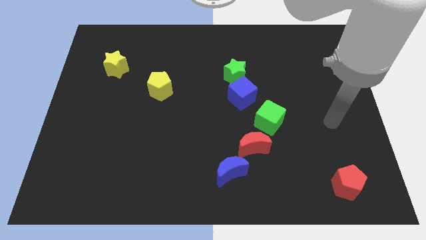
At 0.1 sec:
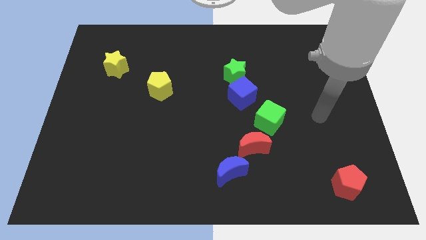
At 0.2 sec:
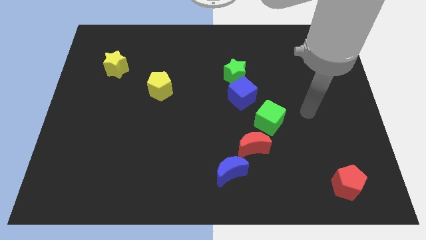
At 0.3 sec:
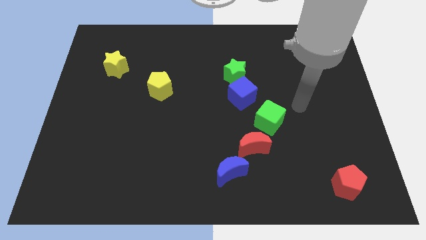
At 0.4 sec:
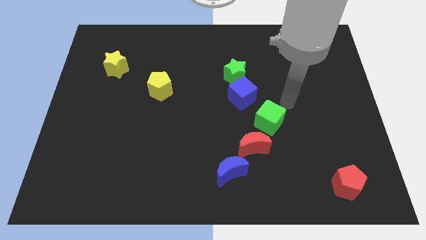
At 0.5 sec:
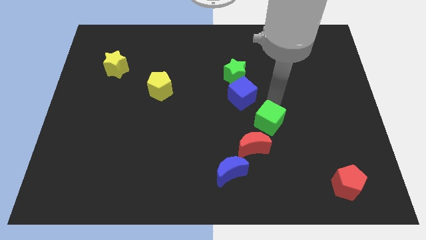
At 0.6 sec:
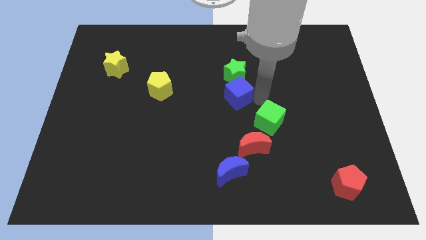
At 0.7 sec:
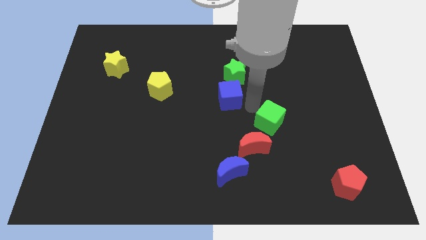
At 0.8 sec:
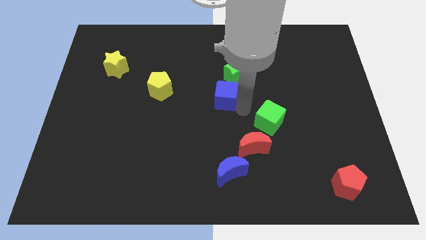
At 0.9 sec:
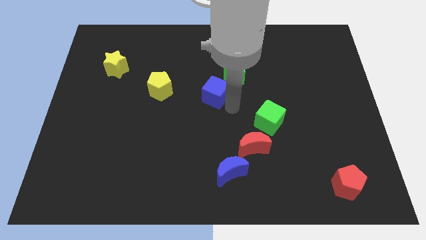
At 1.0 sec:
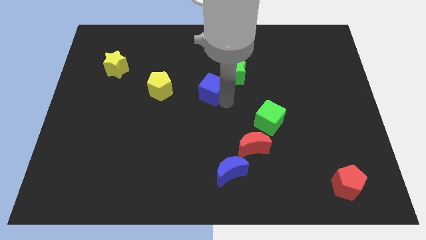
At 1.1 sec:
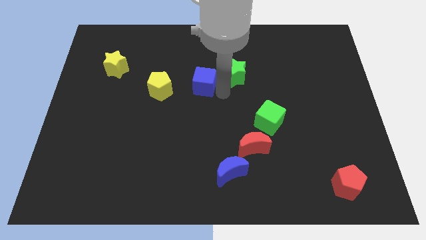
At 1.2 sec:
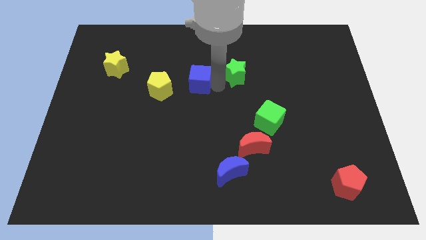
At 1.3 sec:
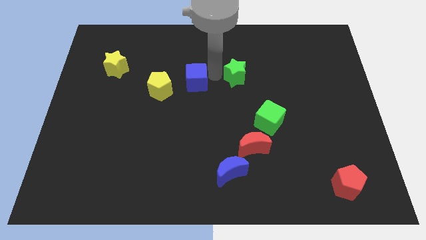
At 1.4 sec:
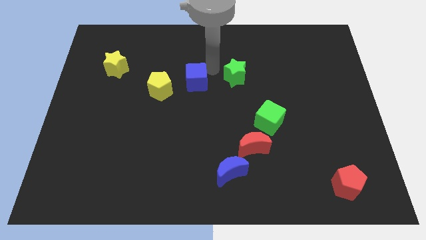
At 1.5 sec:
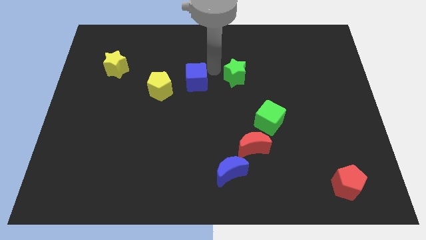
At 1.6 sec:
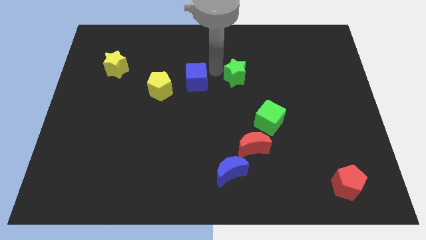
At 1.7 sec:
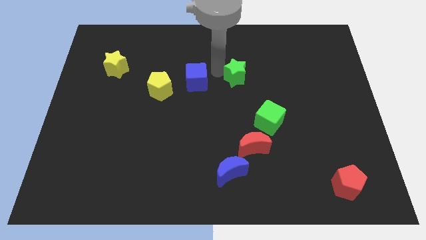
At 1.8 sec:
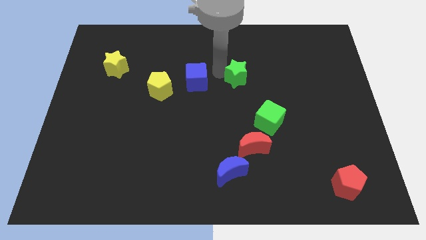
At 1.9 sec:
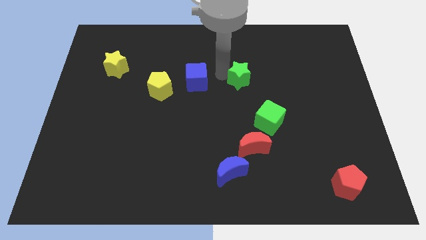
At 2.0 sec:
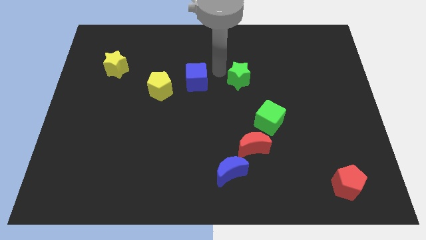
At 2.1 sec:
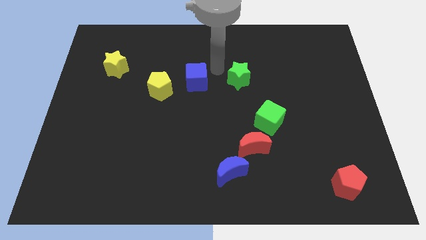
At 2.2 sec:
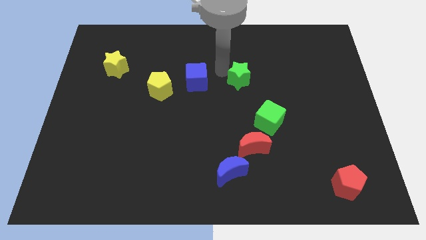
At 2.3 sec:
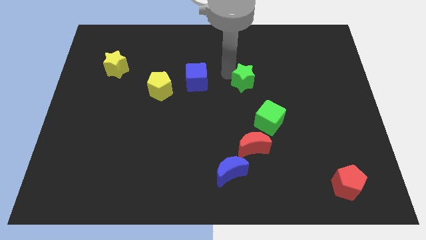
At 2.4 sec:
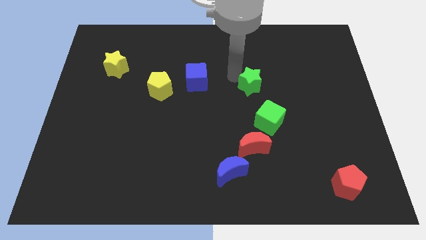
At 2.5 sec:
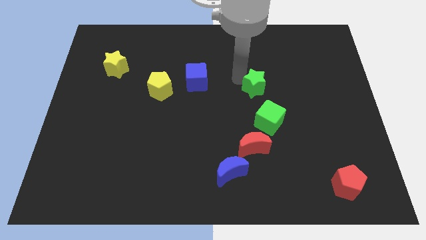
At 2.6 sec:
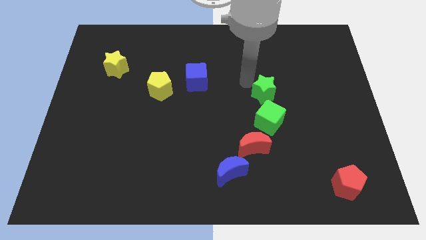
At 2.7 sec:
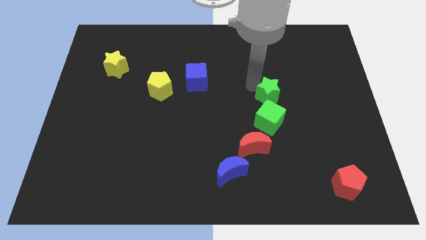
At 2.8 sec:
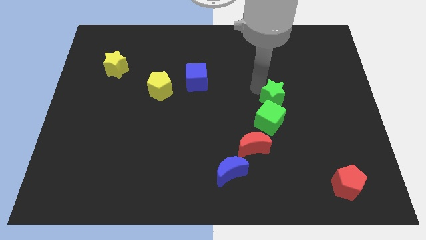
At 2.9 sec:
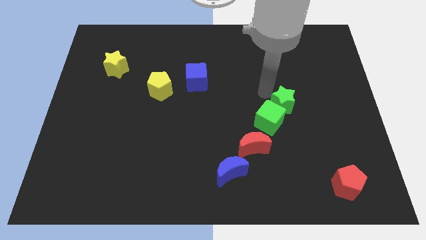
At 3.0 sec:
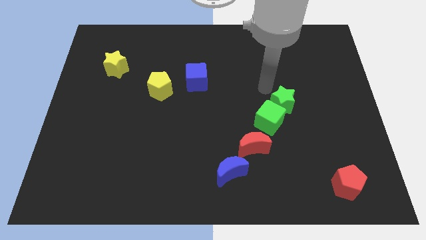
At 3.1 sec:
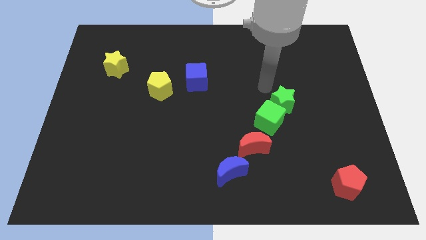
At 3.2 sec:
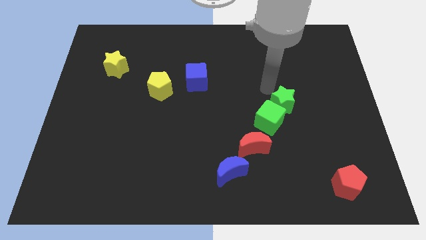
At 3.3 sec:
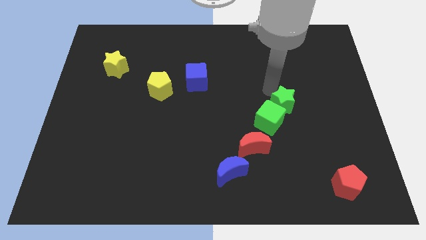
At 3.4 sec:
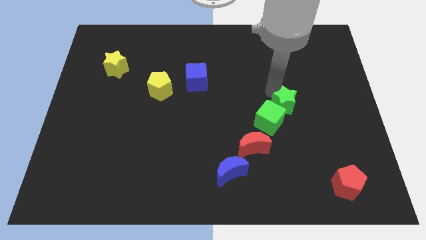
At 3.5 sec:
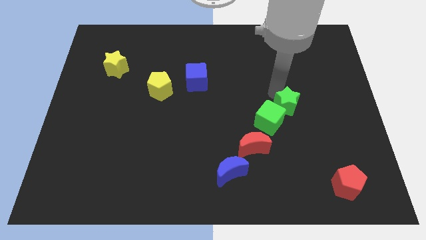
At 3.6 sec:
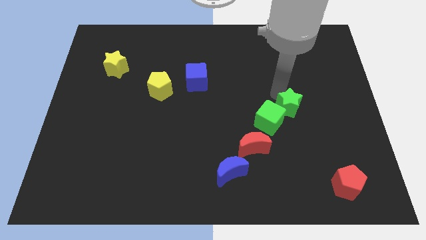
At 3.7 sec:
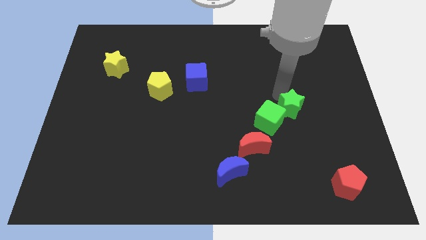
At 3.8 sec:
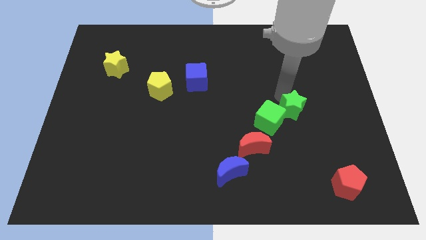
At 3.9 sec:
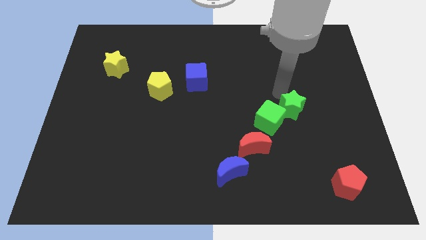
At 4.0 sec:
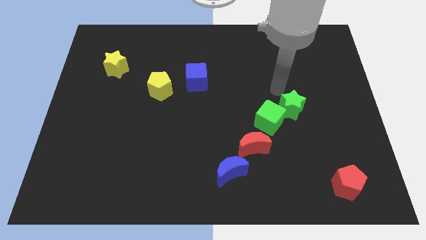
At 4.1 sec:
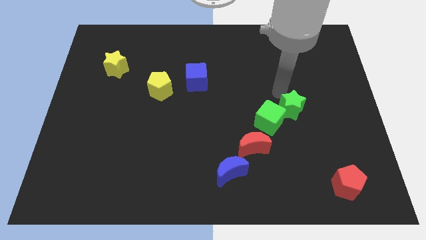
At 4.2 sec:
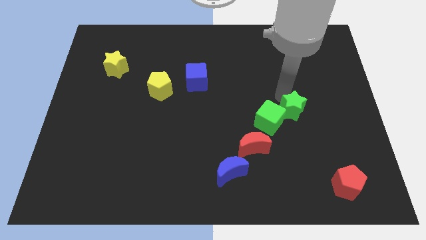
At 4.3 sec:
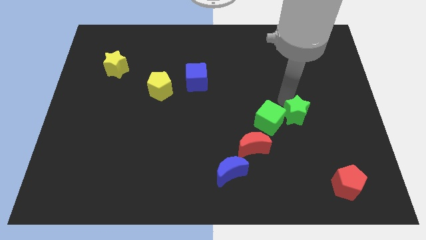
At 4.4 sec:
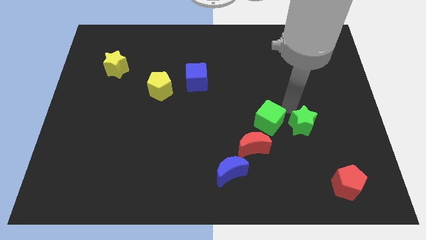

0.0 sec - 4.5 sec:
move the green star down and to the right diagonally

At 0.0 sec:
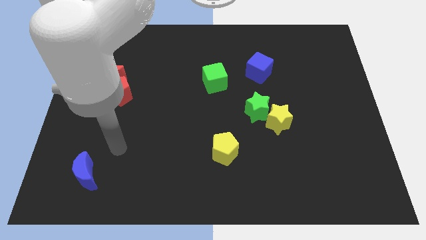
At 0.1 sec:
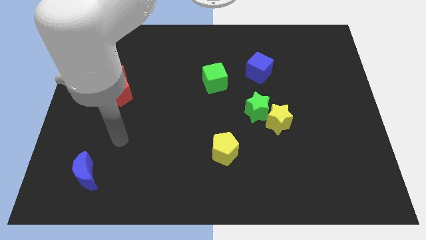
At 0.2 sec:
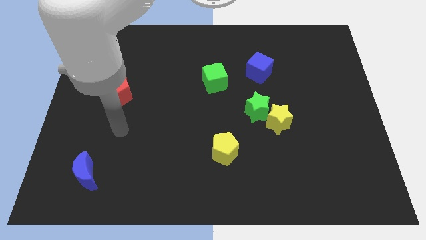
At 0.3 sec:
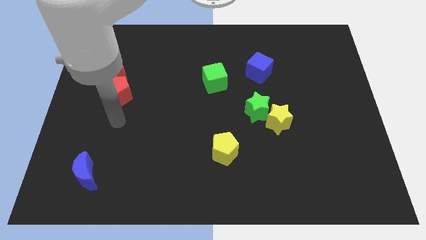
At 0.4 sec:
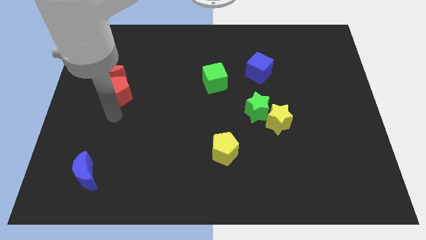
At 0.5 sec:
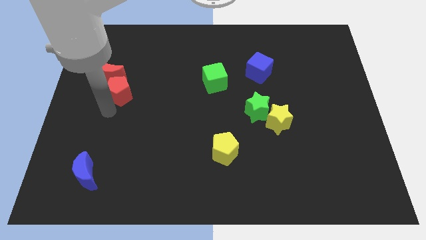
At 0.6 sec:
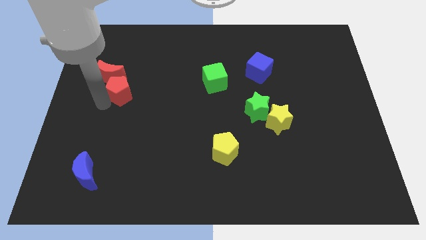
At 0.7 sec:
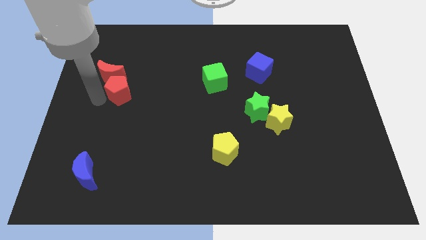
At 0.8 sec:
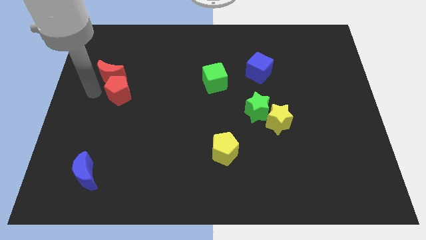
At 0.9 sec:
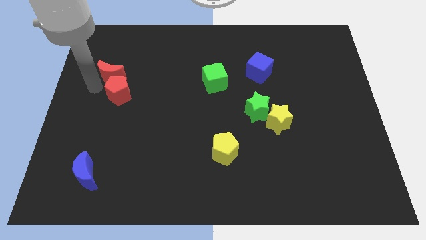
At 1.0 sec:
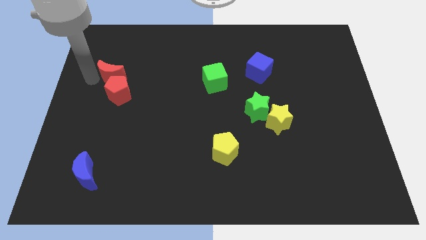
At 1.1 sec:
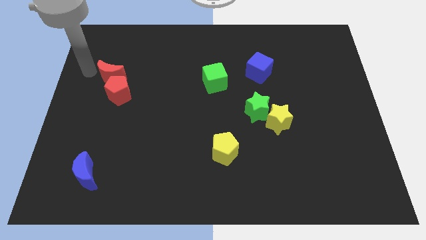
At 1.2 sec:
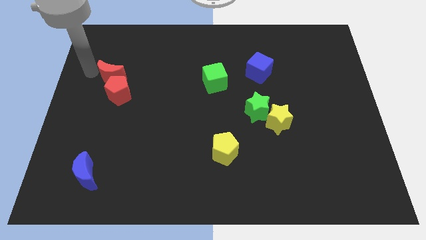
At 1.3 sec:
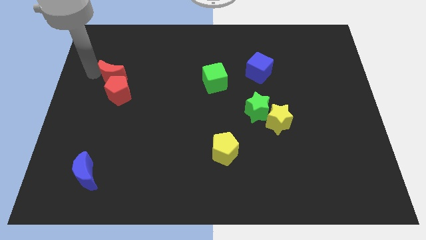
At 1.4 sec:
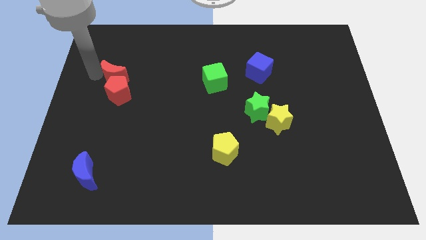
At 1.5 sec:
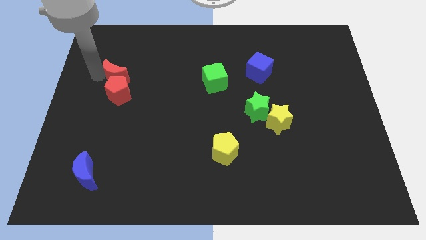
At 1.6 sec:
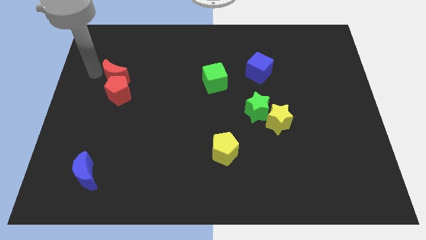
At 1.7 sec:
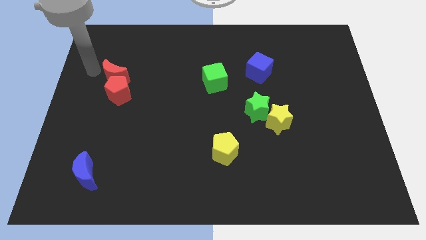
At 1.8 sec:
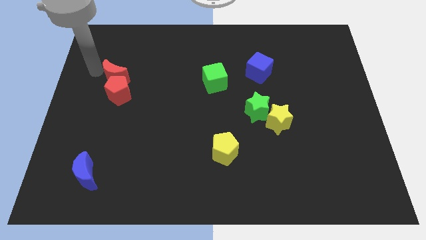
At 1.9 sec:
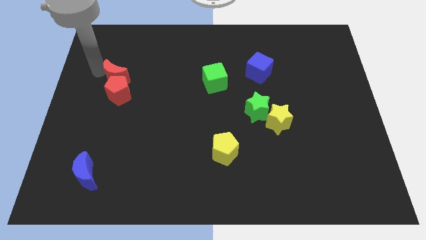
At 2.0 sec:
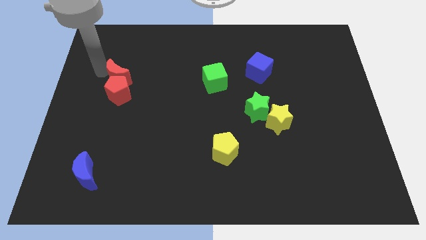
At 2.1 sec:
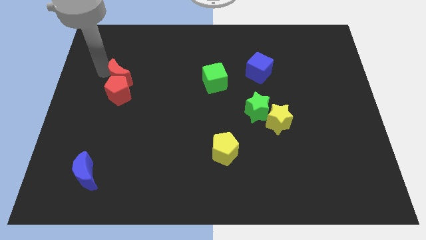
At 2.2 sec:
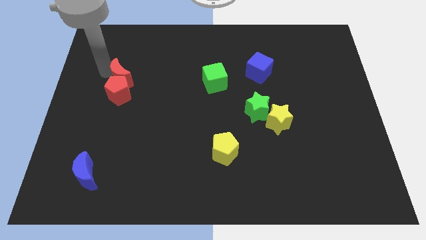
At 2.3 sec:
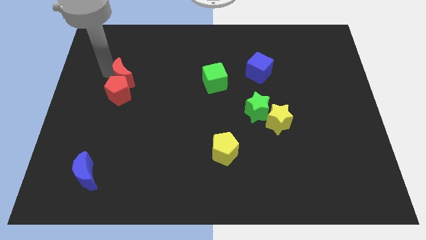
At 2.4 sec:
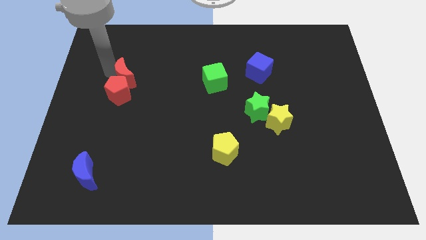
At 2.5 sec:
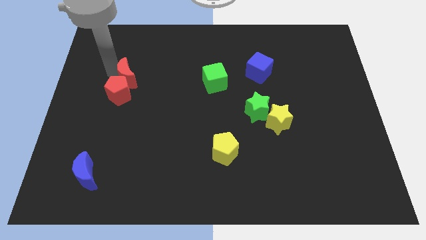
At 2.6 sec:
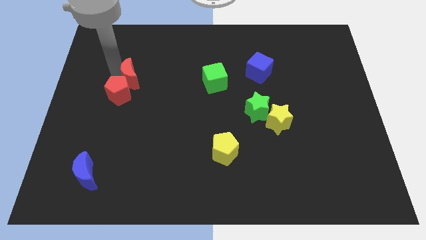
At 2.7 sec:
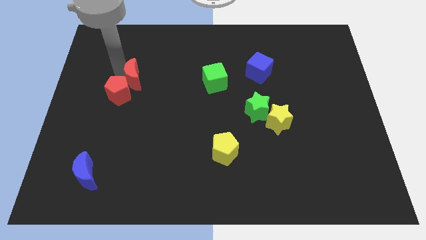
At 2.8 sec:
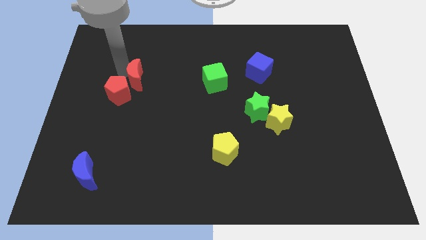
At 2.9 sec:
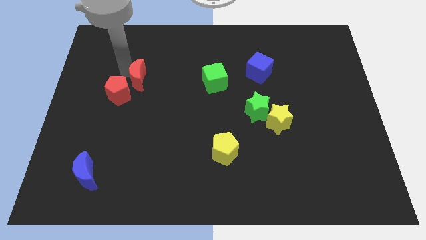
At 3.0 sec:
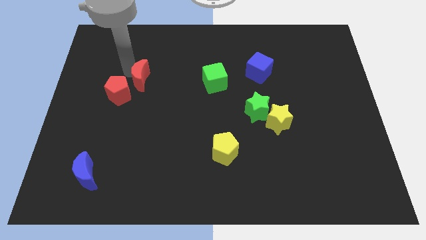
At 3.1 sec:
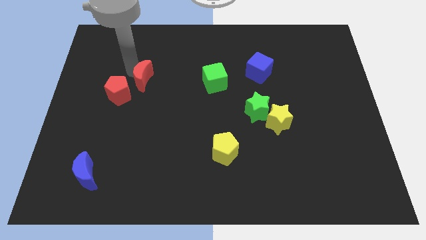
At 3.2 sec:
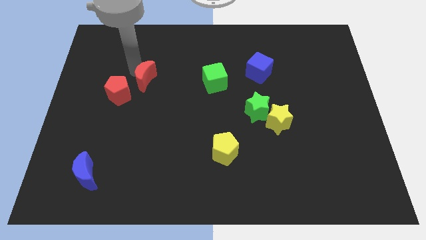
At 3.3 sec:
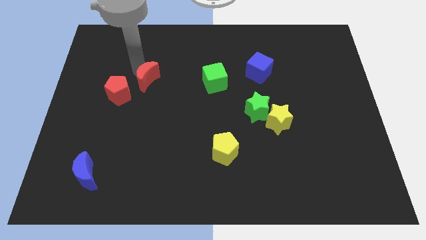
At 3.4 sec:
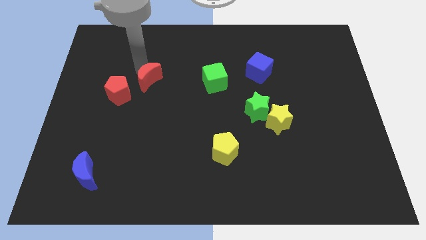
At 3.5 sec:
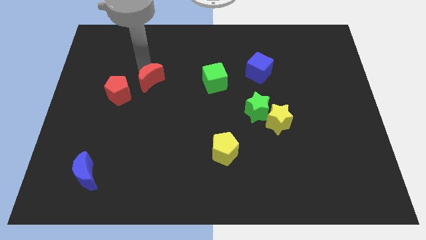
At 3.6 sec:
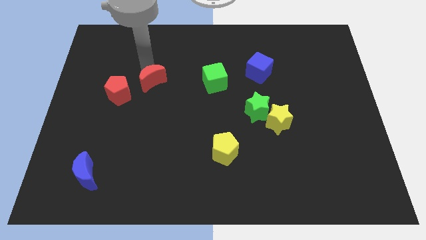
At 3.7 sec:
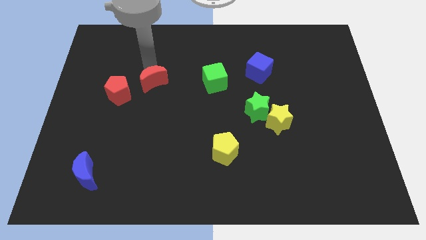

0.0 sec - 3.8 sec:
slightly push the red moon diagonally downwards and right
